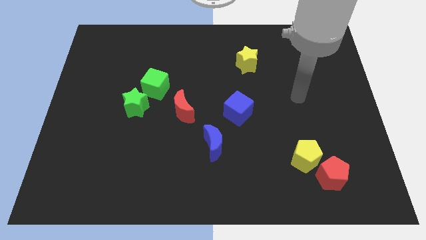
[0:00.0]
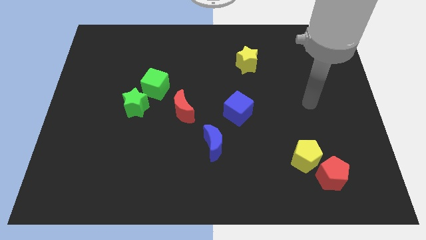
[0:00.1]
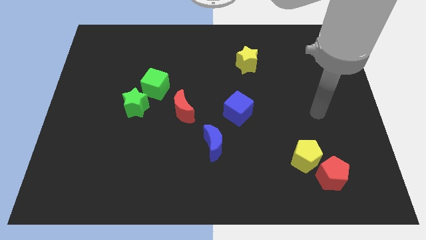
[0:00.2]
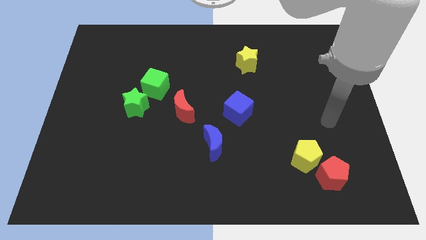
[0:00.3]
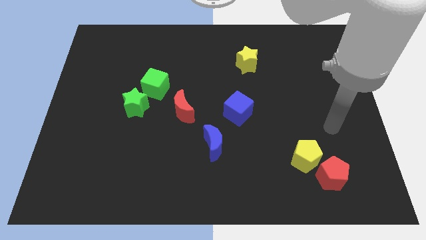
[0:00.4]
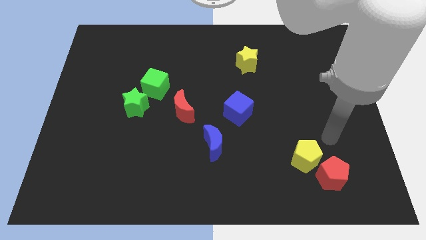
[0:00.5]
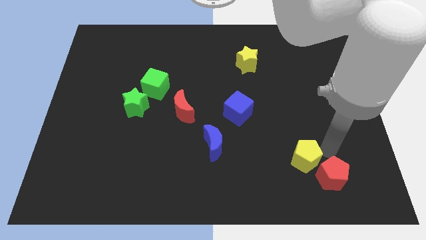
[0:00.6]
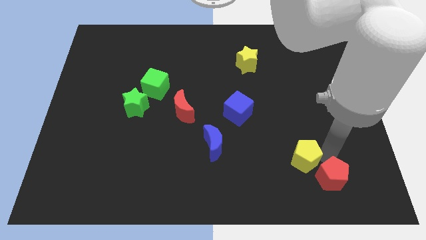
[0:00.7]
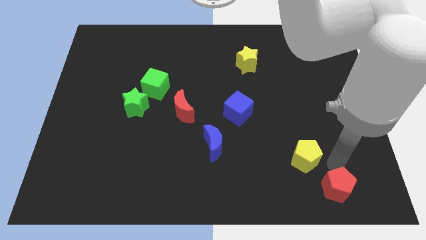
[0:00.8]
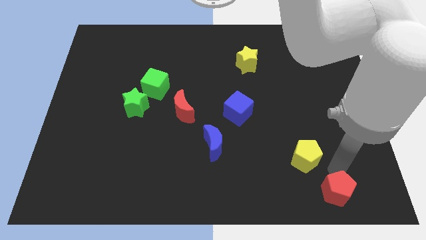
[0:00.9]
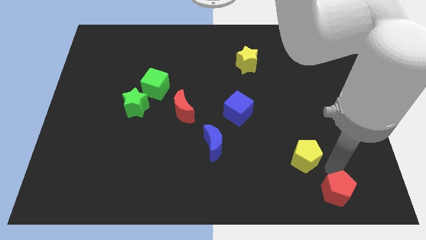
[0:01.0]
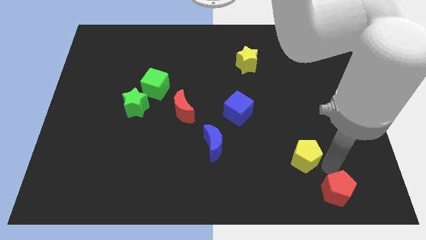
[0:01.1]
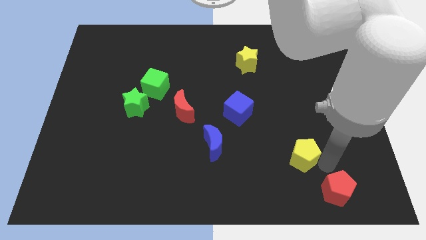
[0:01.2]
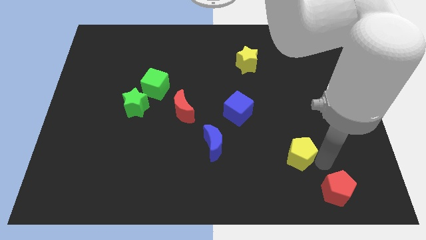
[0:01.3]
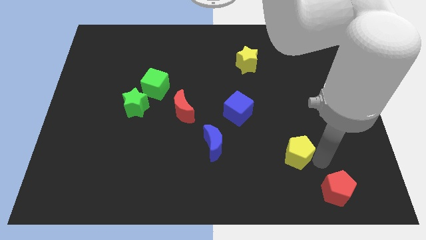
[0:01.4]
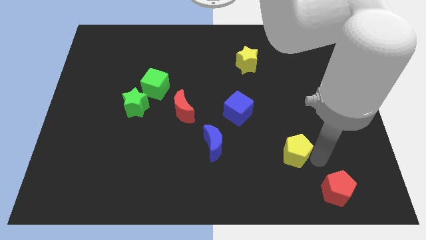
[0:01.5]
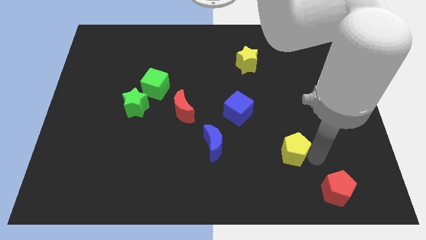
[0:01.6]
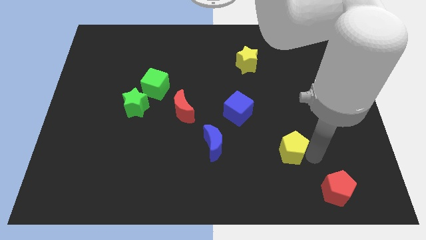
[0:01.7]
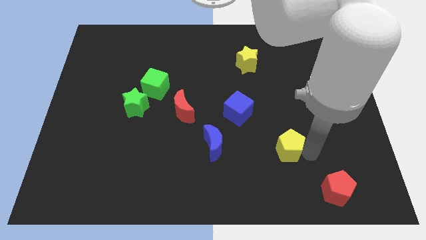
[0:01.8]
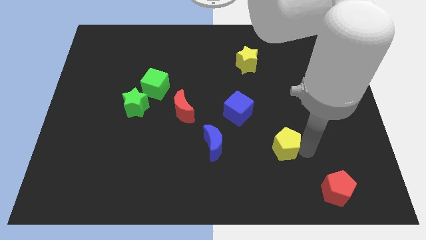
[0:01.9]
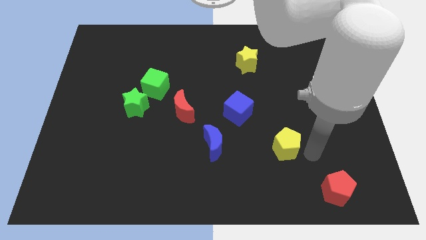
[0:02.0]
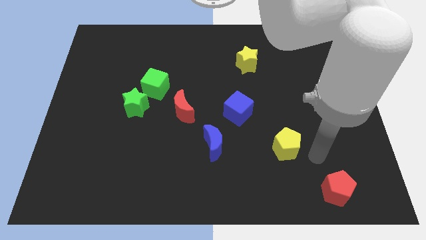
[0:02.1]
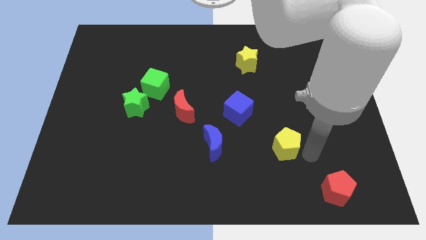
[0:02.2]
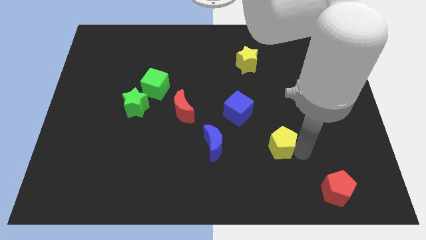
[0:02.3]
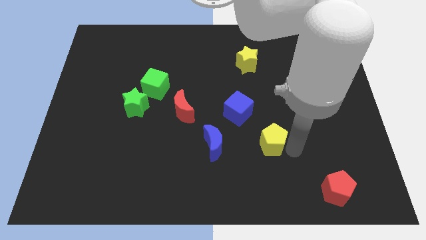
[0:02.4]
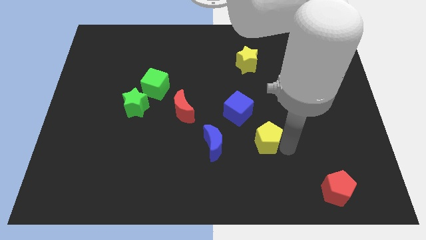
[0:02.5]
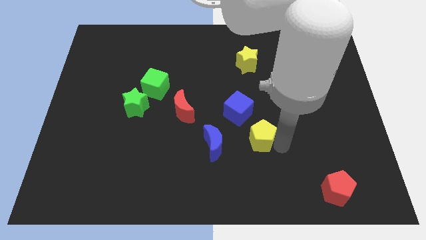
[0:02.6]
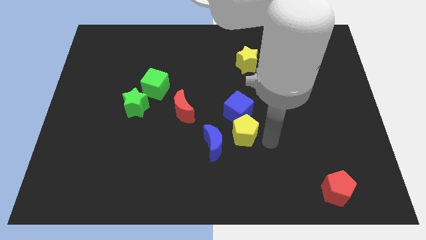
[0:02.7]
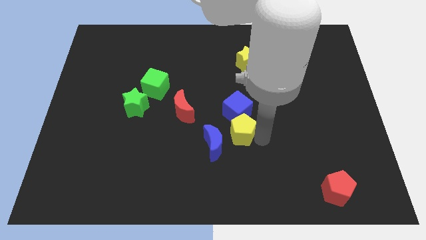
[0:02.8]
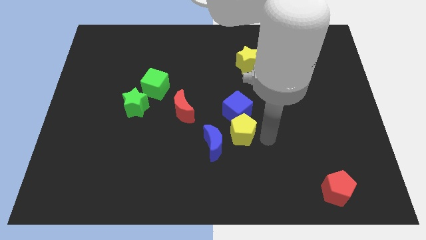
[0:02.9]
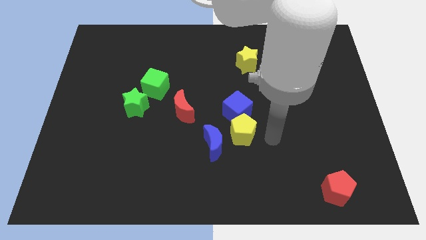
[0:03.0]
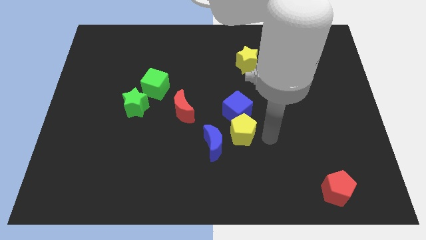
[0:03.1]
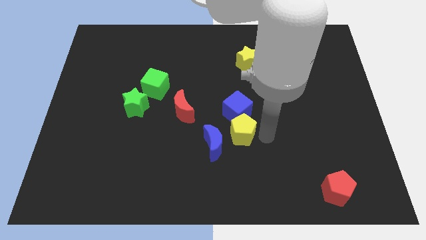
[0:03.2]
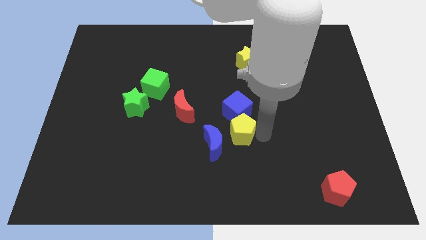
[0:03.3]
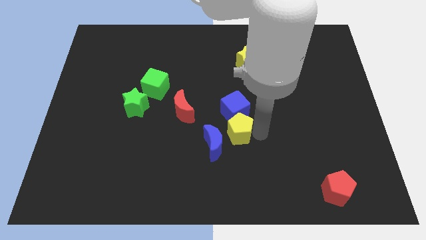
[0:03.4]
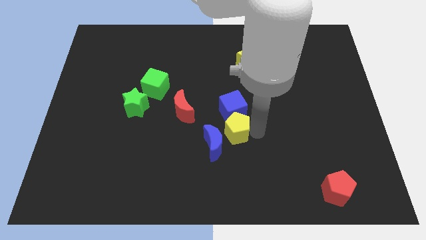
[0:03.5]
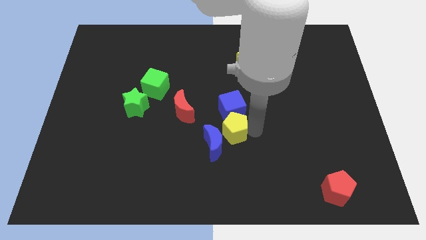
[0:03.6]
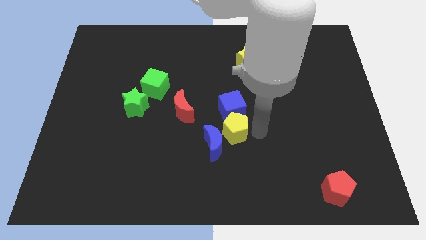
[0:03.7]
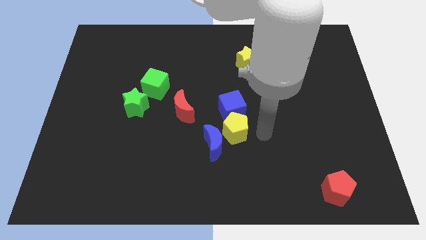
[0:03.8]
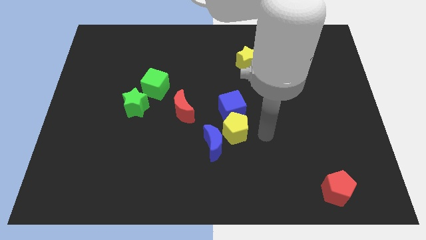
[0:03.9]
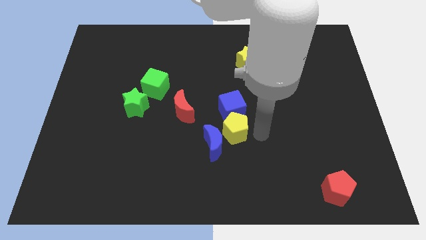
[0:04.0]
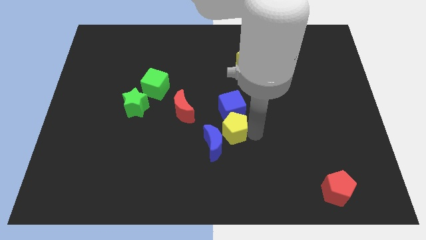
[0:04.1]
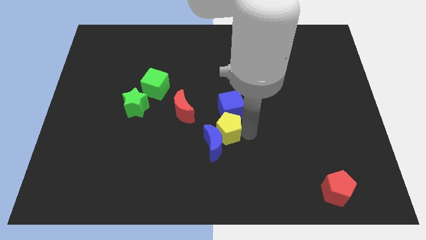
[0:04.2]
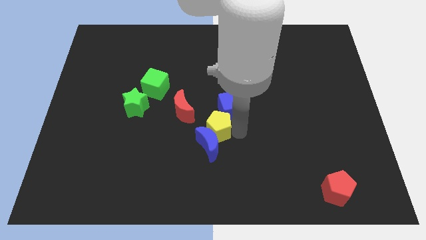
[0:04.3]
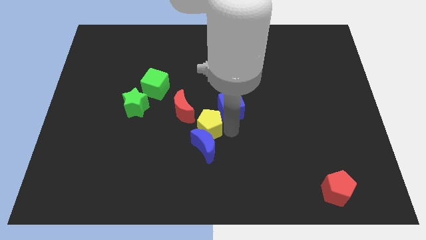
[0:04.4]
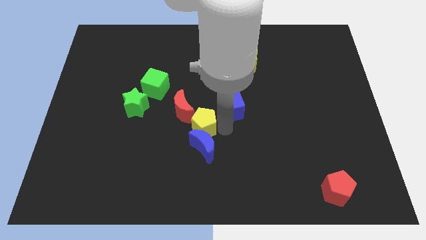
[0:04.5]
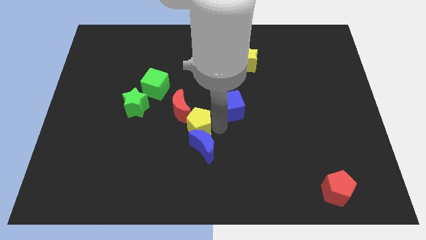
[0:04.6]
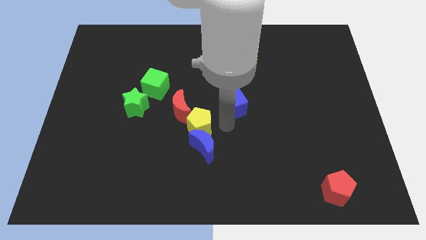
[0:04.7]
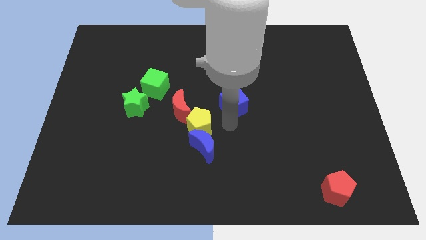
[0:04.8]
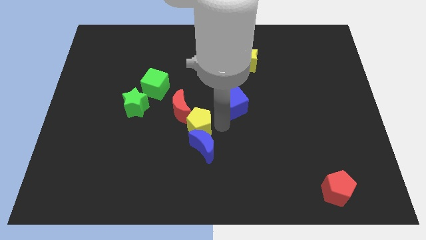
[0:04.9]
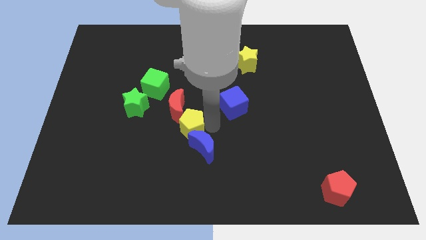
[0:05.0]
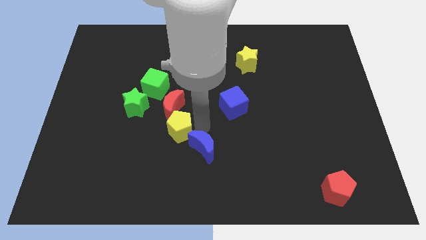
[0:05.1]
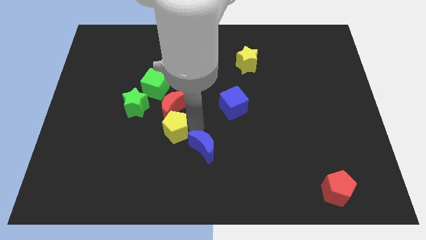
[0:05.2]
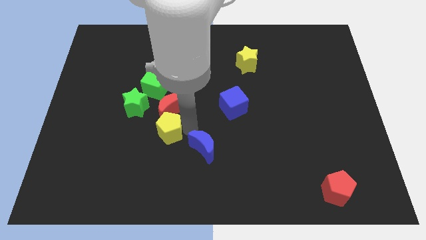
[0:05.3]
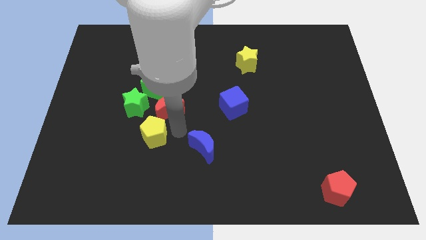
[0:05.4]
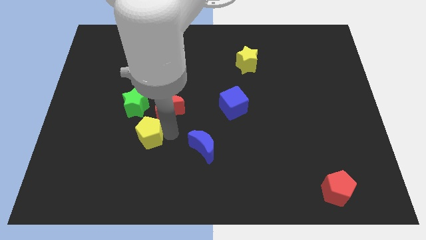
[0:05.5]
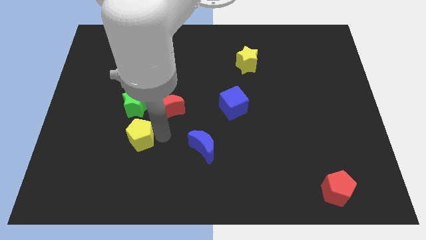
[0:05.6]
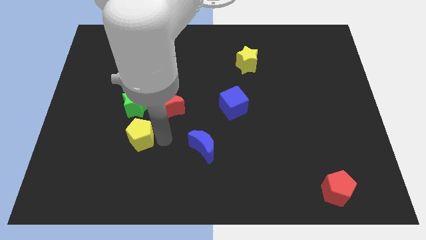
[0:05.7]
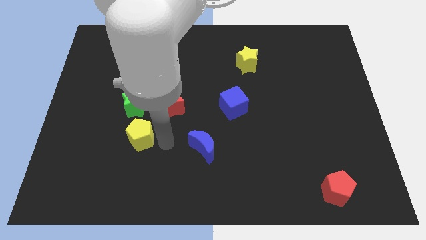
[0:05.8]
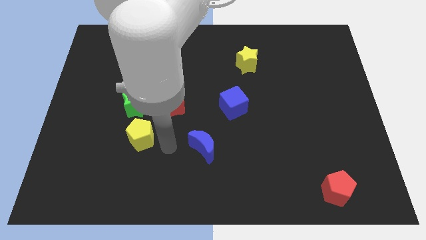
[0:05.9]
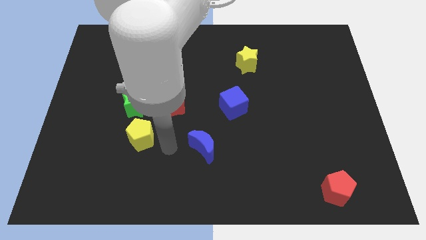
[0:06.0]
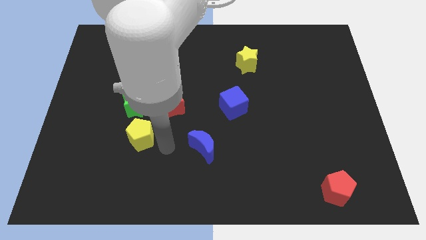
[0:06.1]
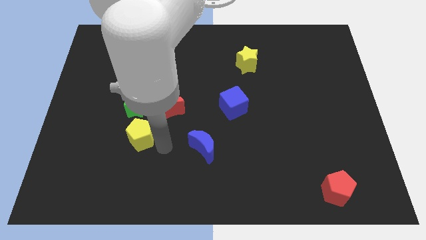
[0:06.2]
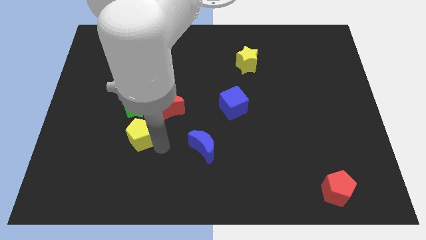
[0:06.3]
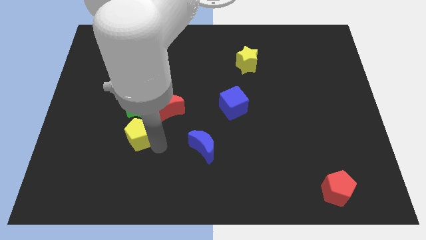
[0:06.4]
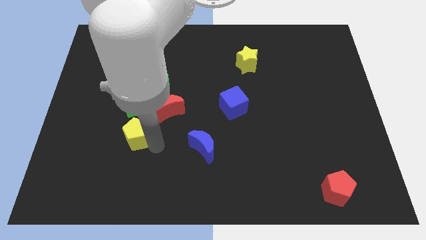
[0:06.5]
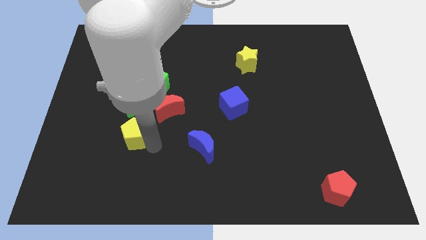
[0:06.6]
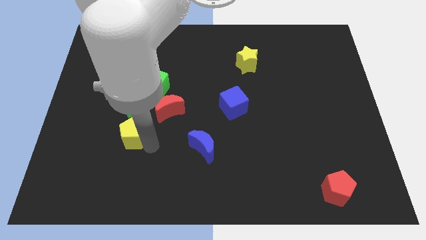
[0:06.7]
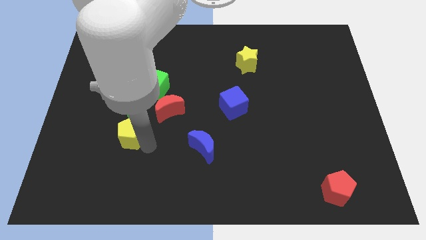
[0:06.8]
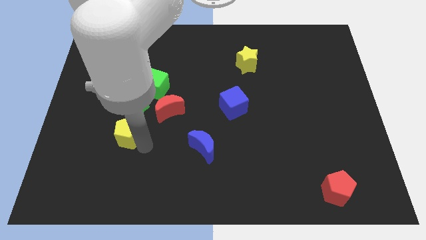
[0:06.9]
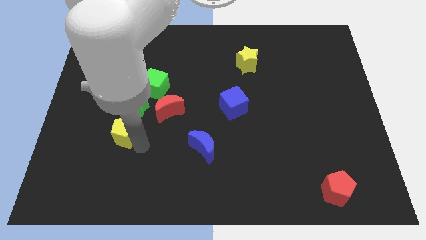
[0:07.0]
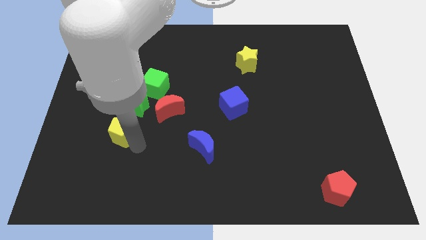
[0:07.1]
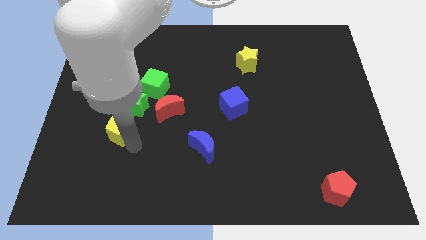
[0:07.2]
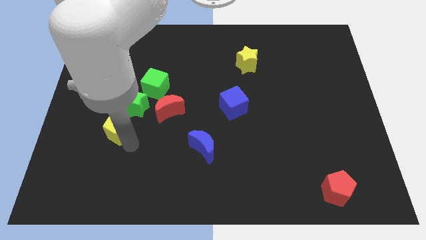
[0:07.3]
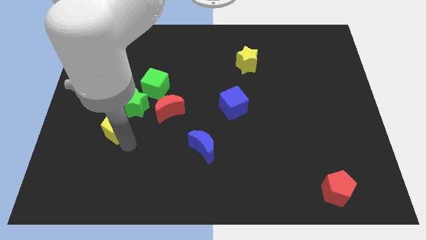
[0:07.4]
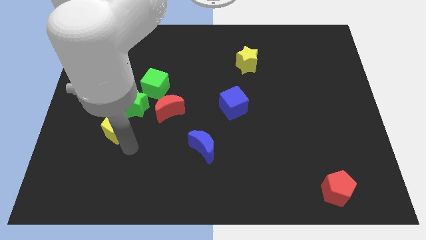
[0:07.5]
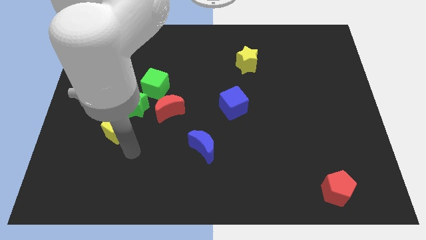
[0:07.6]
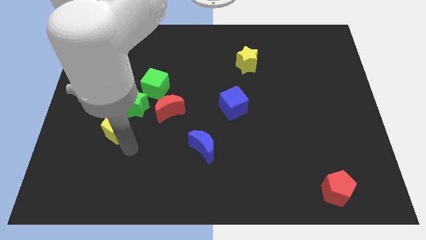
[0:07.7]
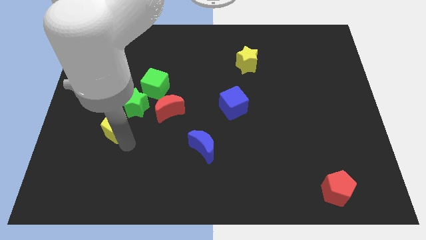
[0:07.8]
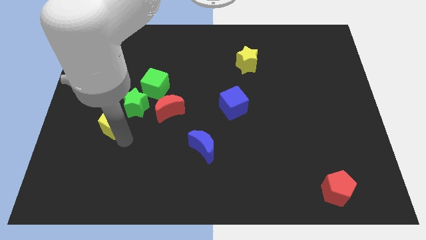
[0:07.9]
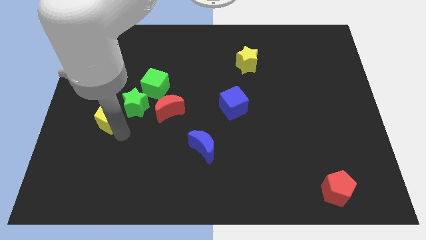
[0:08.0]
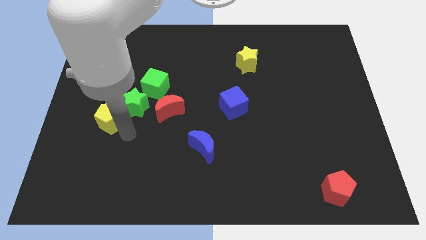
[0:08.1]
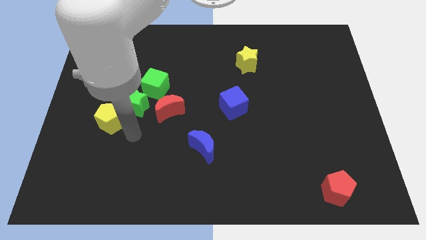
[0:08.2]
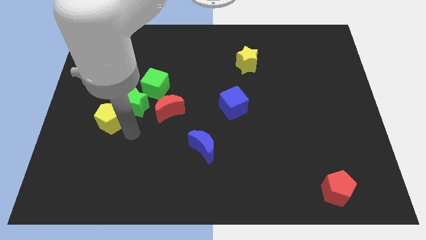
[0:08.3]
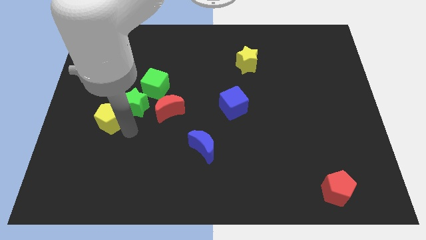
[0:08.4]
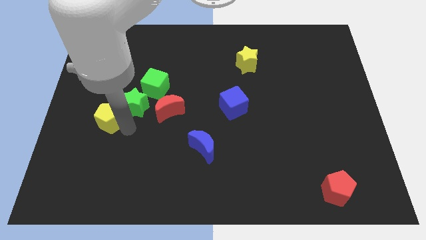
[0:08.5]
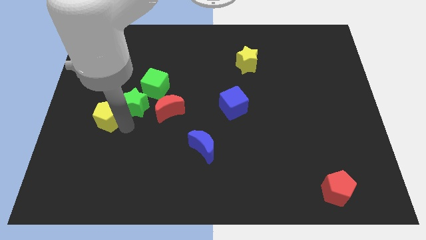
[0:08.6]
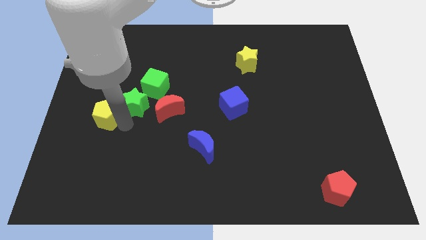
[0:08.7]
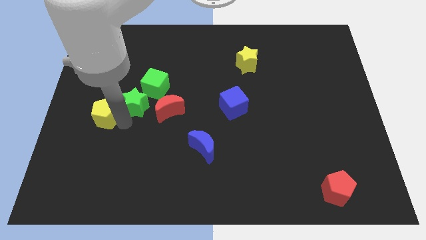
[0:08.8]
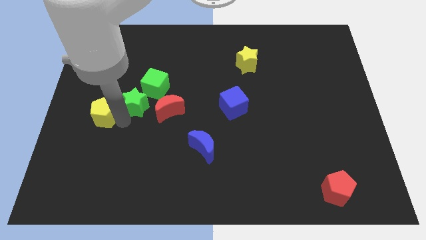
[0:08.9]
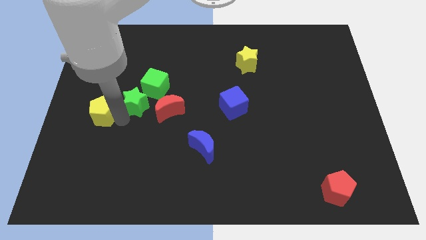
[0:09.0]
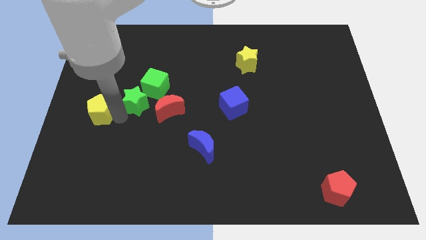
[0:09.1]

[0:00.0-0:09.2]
move the yellow pentagon to the left side
